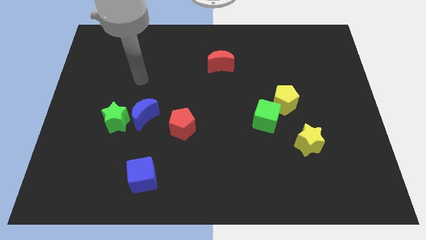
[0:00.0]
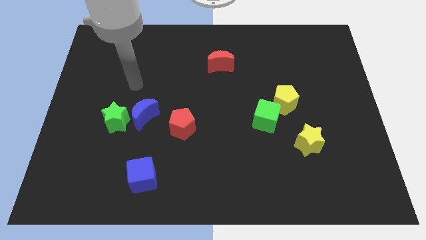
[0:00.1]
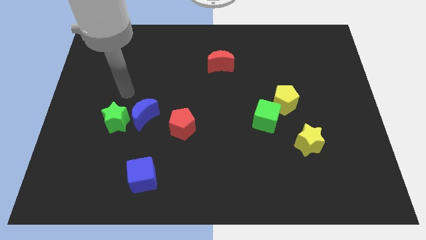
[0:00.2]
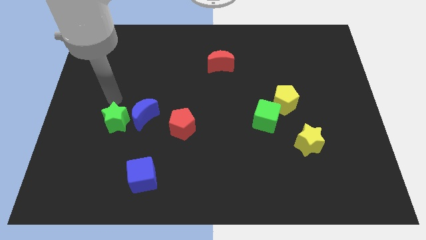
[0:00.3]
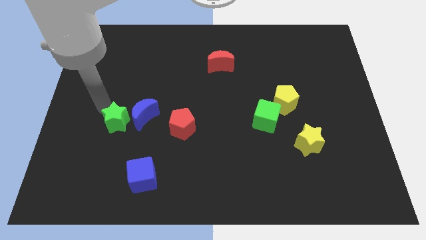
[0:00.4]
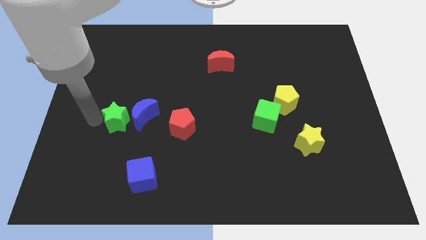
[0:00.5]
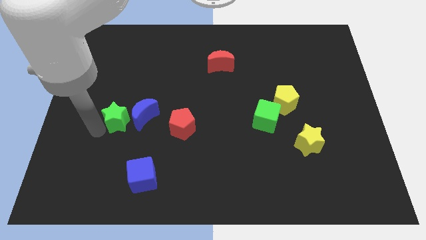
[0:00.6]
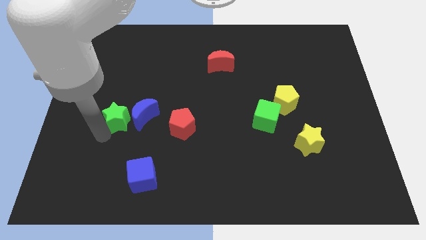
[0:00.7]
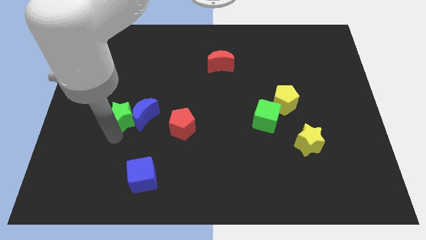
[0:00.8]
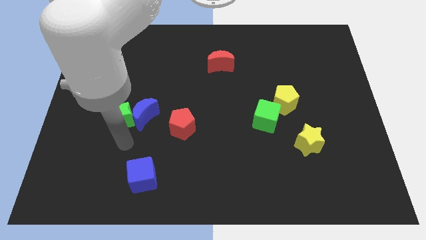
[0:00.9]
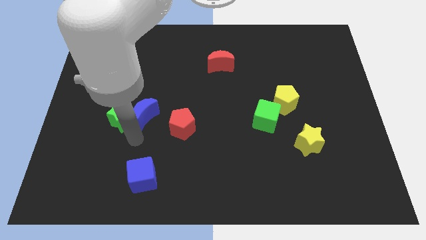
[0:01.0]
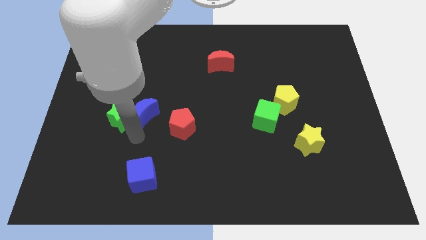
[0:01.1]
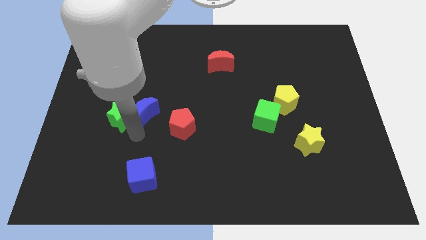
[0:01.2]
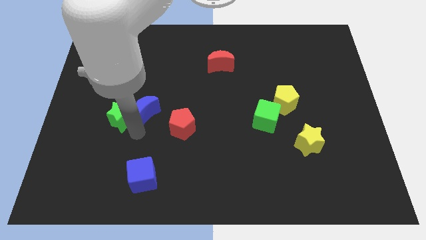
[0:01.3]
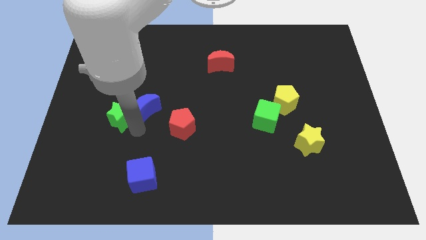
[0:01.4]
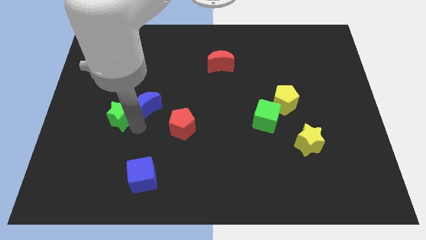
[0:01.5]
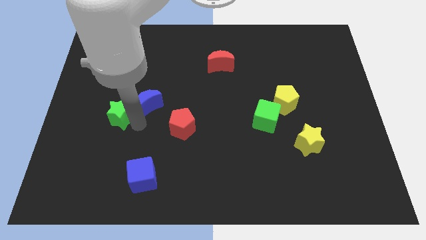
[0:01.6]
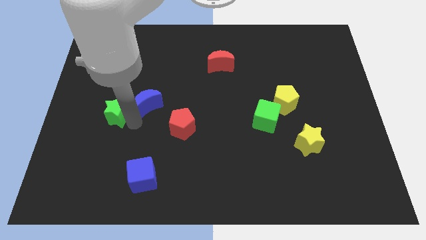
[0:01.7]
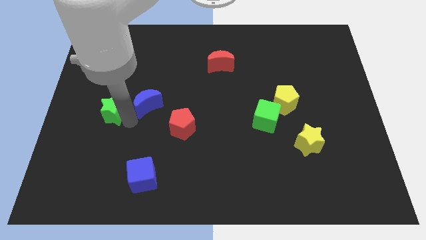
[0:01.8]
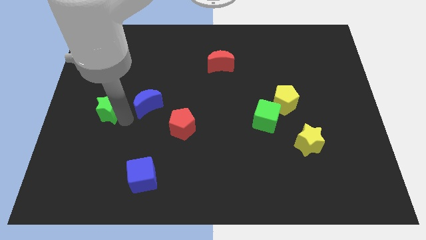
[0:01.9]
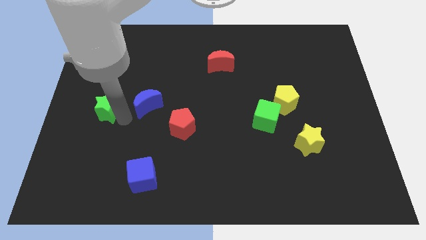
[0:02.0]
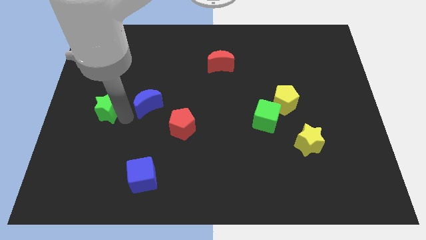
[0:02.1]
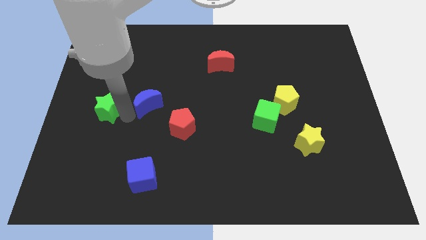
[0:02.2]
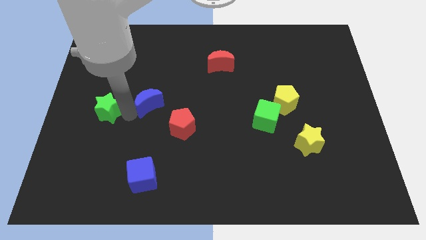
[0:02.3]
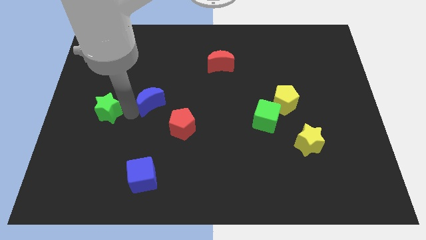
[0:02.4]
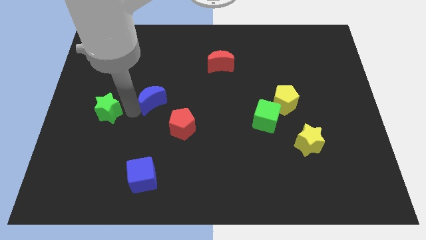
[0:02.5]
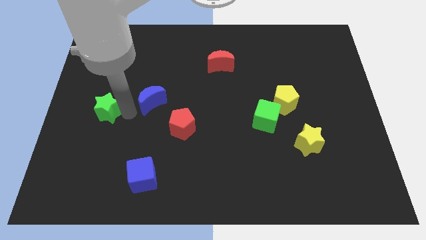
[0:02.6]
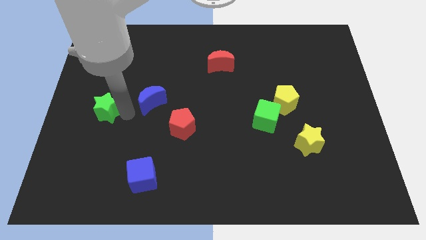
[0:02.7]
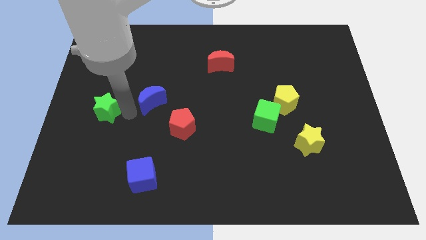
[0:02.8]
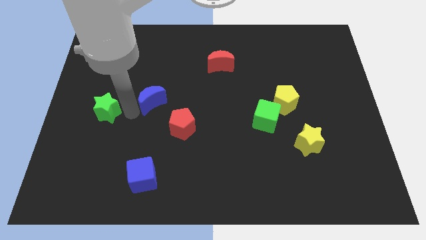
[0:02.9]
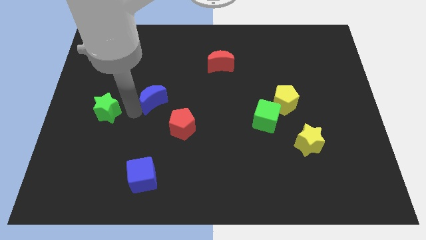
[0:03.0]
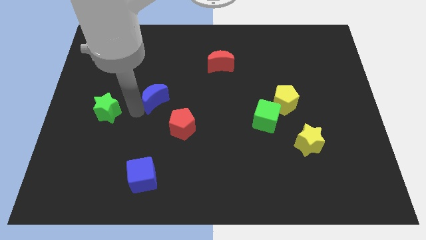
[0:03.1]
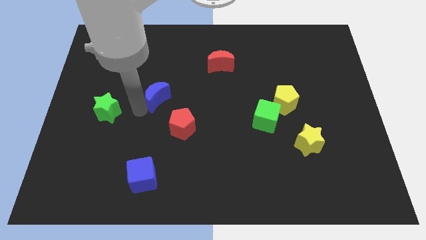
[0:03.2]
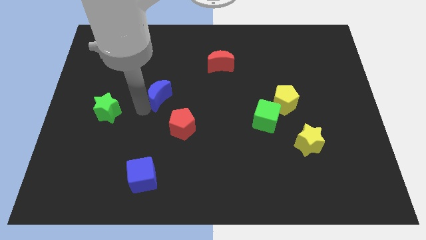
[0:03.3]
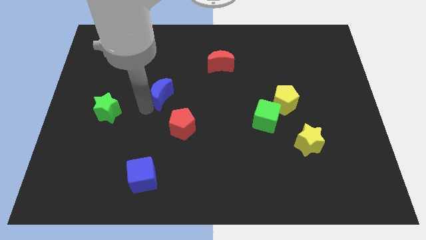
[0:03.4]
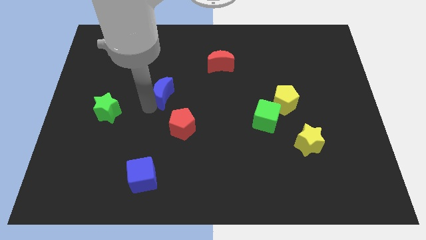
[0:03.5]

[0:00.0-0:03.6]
move the blue moon a little bit diagonally upwards and right

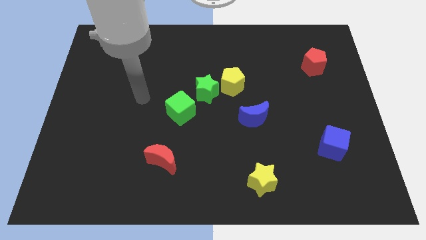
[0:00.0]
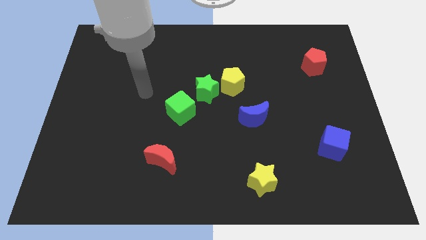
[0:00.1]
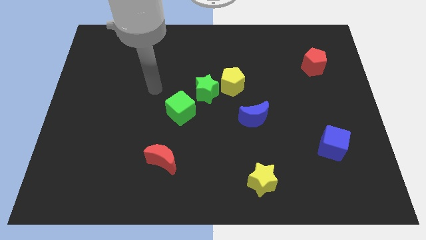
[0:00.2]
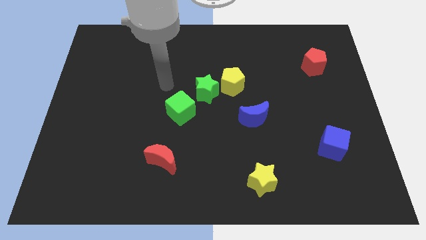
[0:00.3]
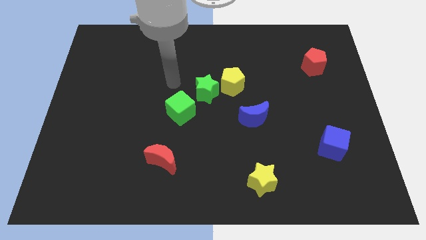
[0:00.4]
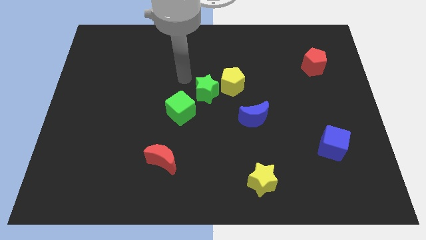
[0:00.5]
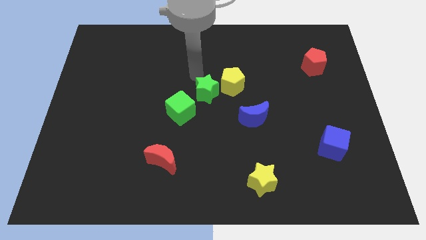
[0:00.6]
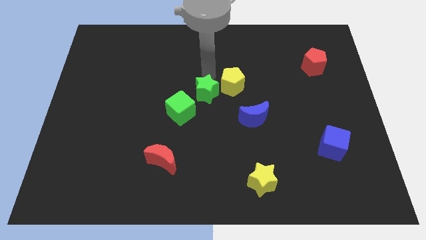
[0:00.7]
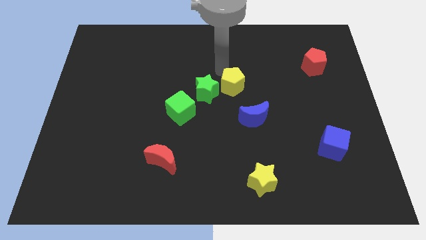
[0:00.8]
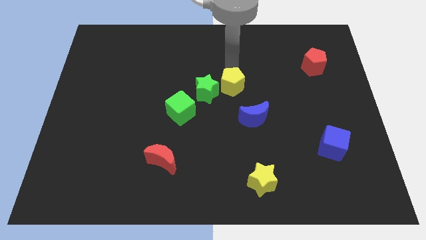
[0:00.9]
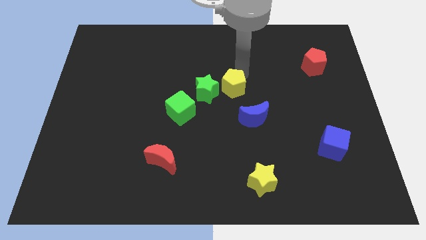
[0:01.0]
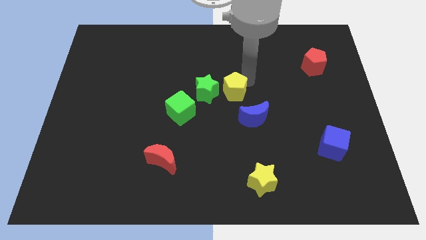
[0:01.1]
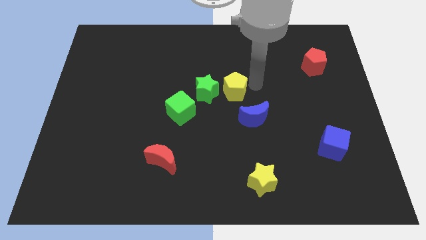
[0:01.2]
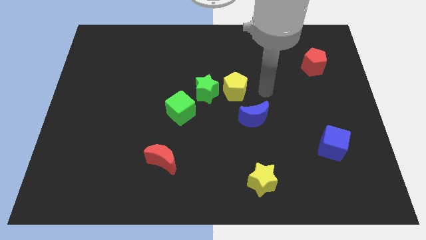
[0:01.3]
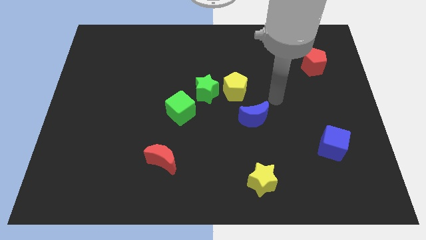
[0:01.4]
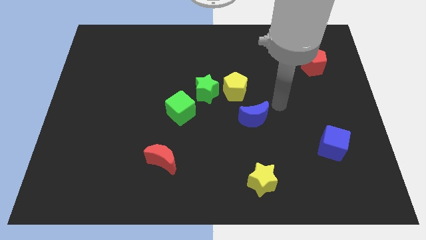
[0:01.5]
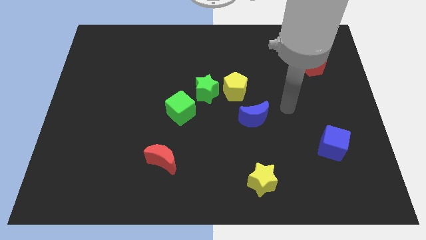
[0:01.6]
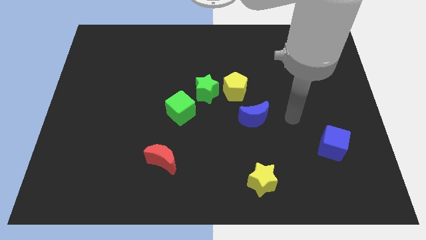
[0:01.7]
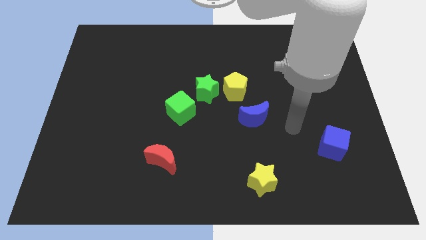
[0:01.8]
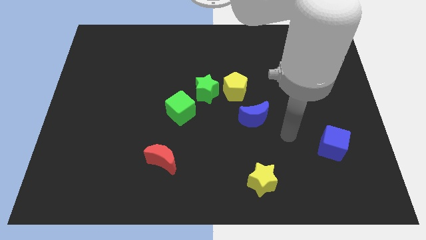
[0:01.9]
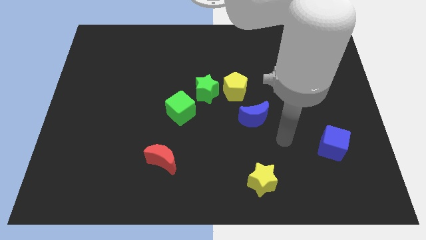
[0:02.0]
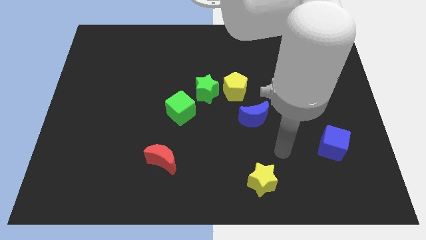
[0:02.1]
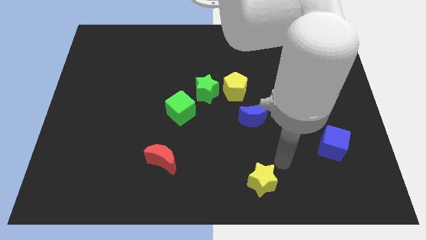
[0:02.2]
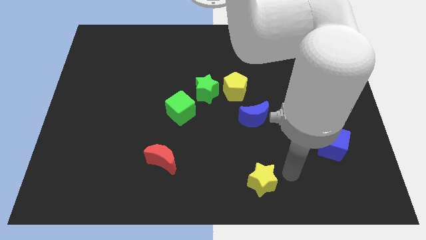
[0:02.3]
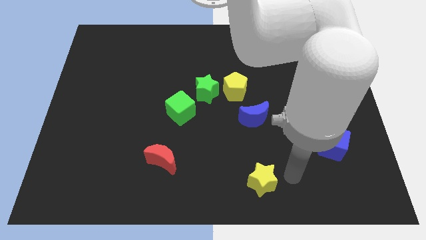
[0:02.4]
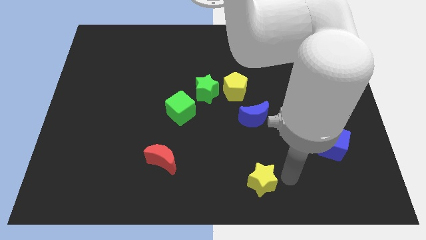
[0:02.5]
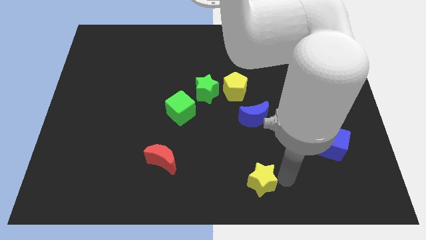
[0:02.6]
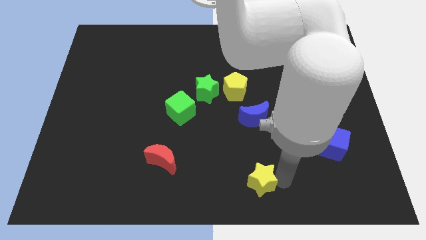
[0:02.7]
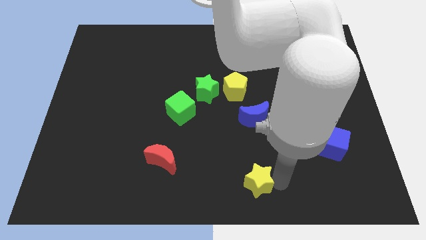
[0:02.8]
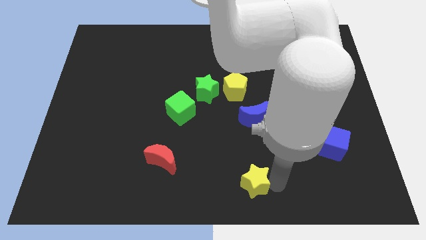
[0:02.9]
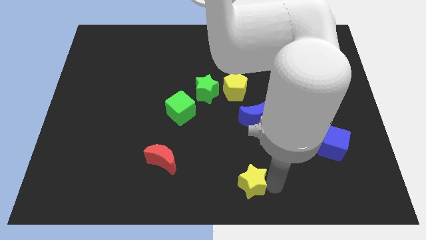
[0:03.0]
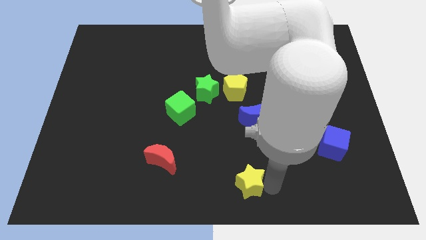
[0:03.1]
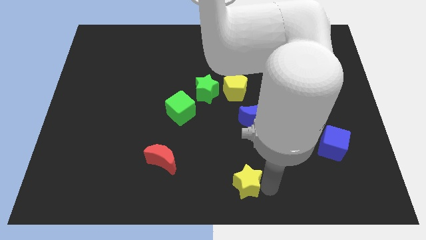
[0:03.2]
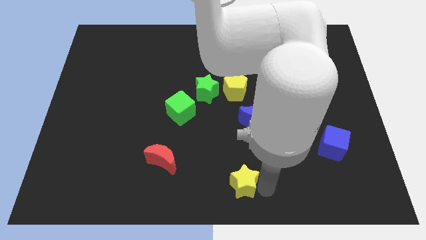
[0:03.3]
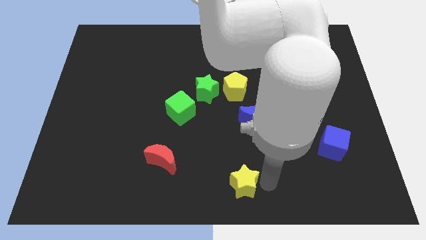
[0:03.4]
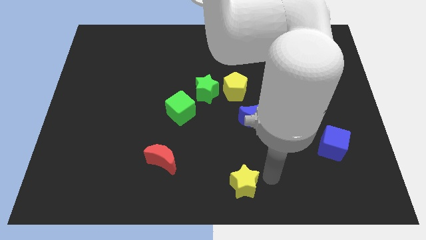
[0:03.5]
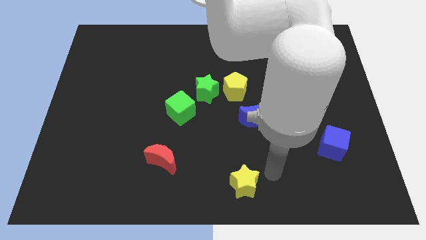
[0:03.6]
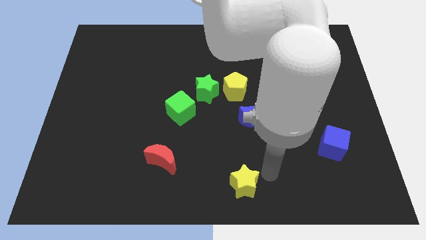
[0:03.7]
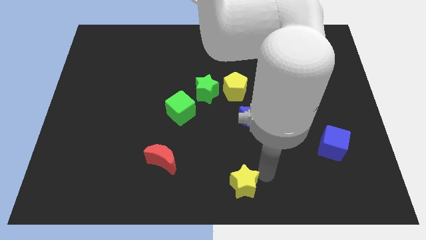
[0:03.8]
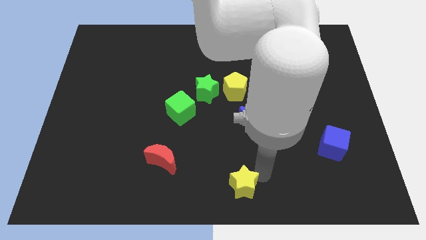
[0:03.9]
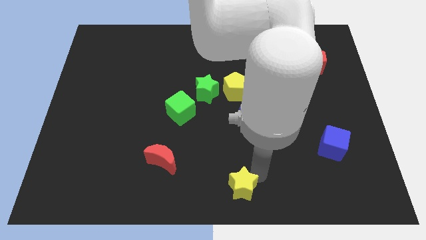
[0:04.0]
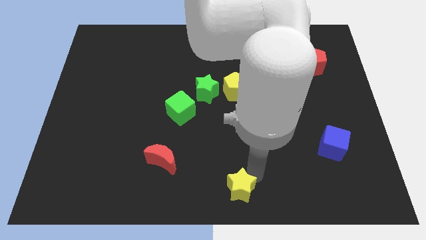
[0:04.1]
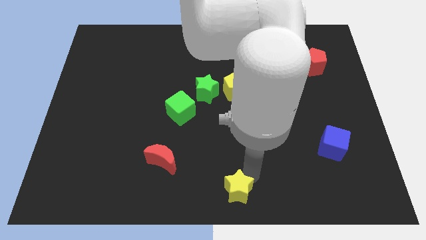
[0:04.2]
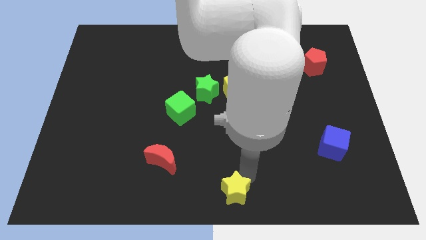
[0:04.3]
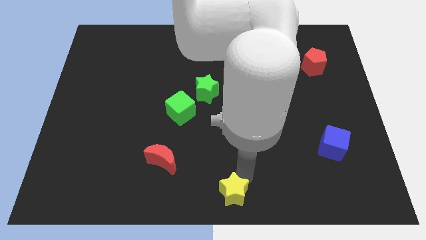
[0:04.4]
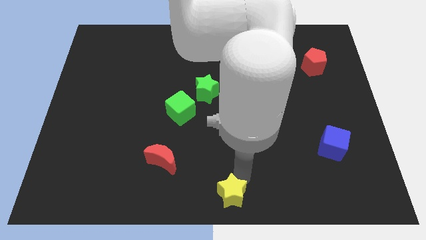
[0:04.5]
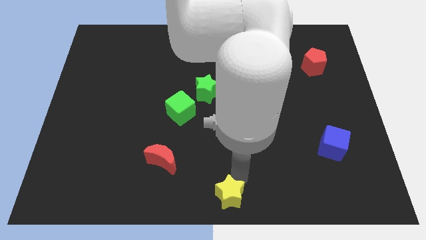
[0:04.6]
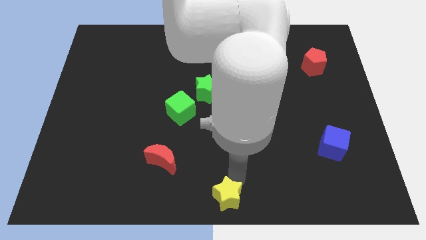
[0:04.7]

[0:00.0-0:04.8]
push the yellow star somewhat to the left
